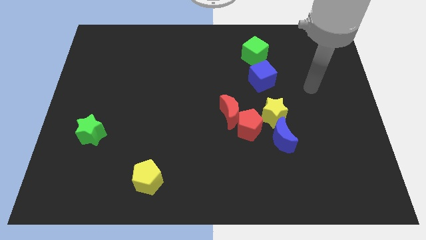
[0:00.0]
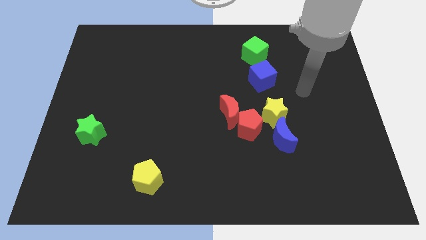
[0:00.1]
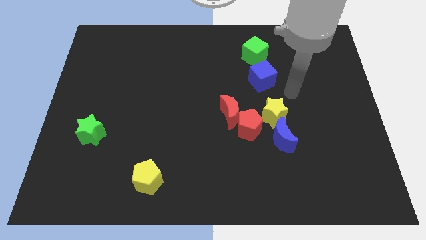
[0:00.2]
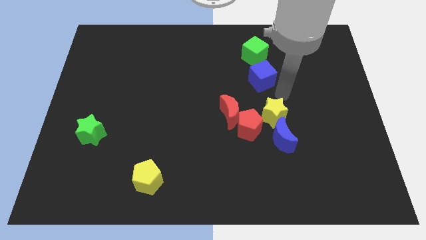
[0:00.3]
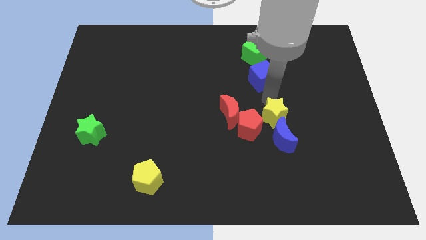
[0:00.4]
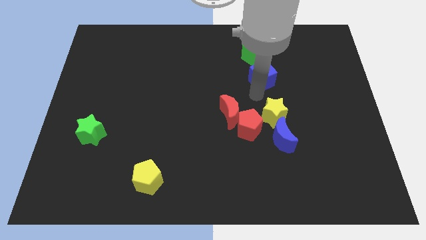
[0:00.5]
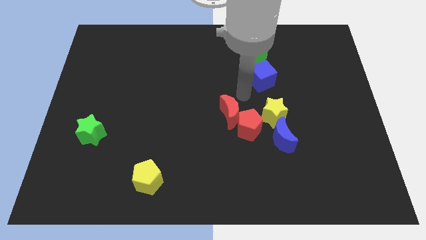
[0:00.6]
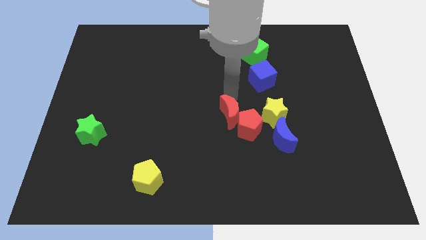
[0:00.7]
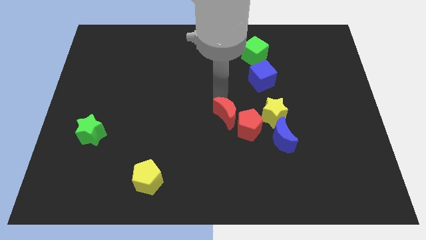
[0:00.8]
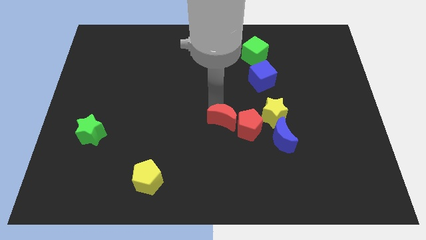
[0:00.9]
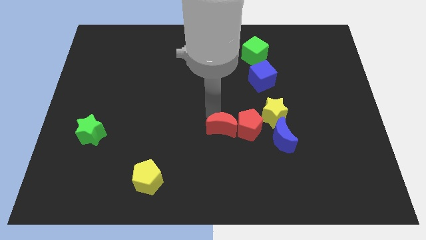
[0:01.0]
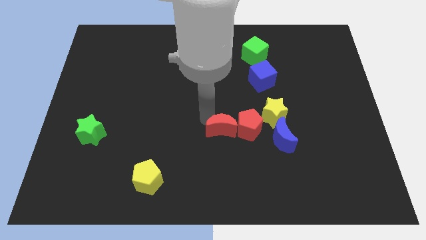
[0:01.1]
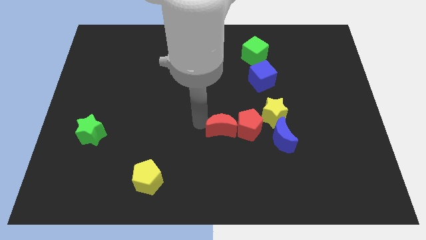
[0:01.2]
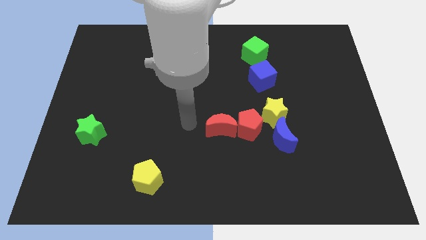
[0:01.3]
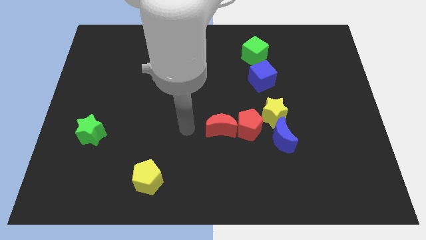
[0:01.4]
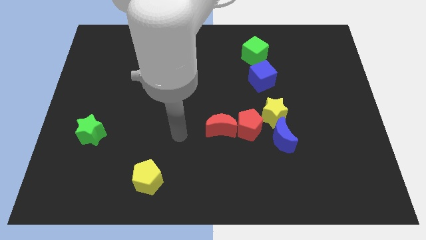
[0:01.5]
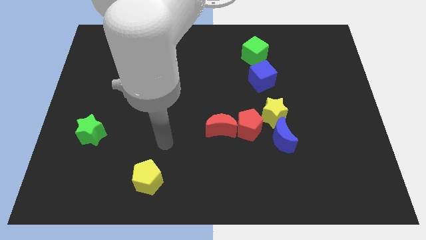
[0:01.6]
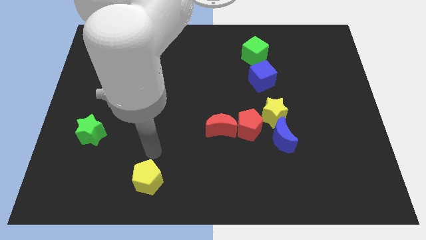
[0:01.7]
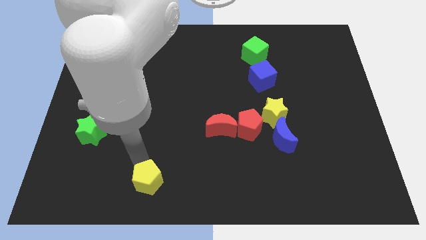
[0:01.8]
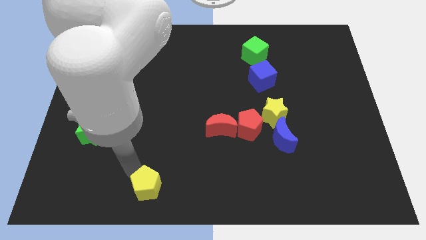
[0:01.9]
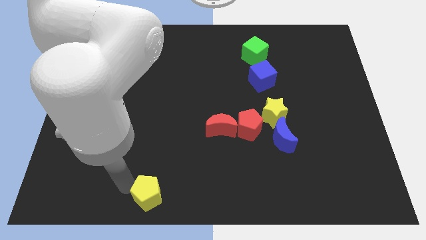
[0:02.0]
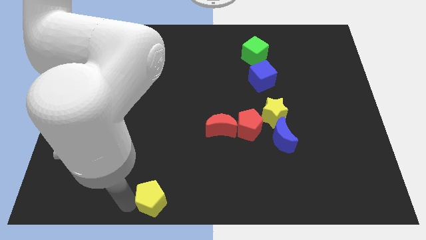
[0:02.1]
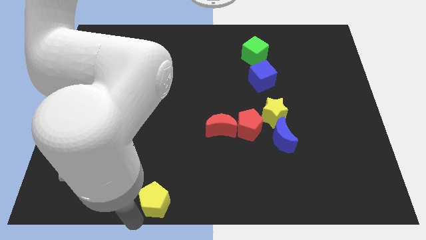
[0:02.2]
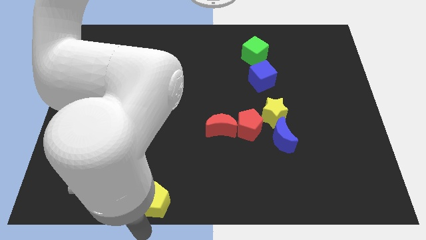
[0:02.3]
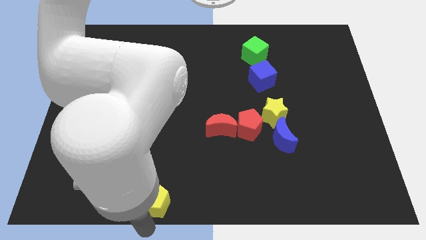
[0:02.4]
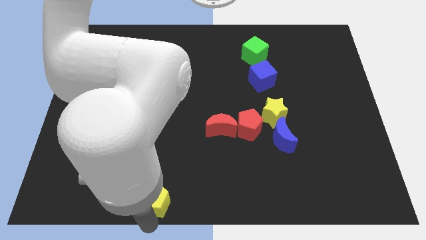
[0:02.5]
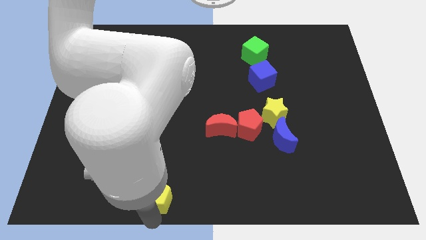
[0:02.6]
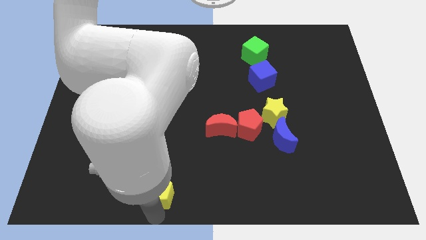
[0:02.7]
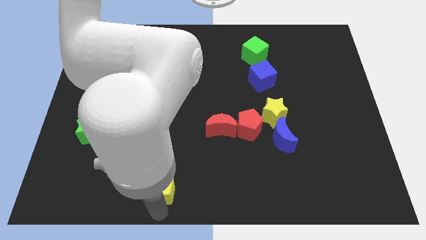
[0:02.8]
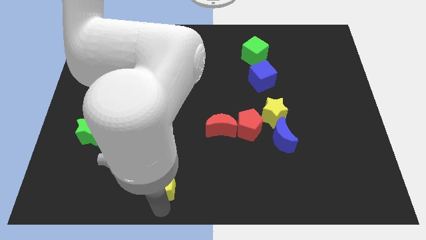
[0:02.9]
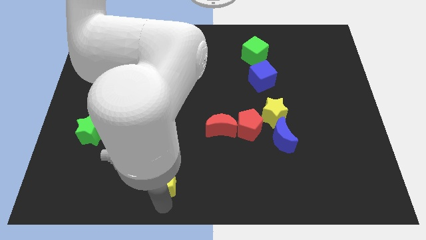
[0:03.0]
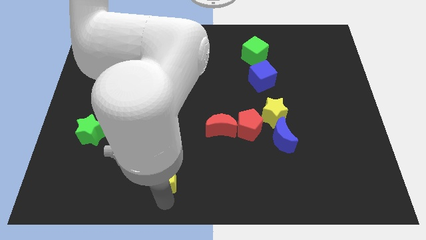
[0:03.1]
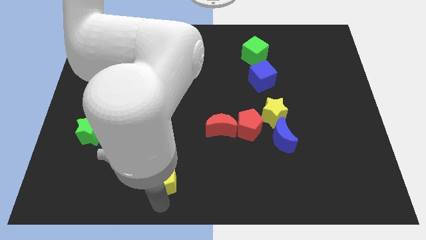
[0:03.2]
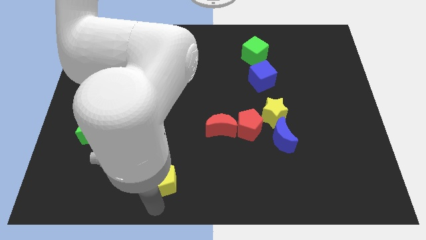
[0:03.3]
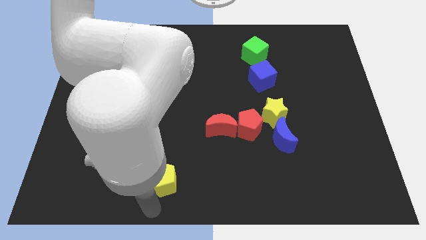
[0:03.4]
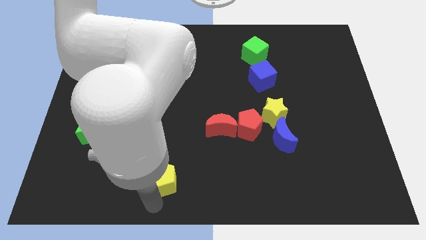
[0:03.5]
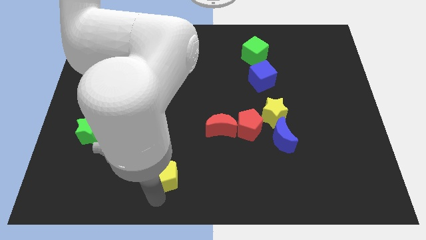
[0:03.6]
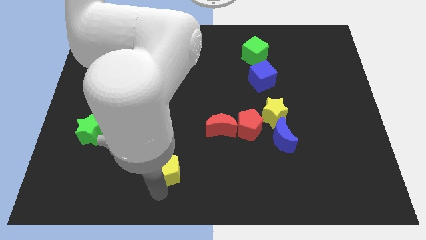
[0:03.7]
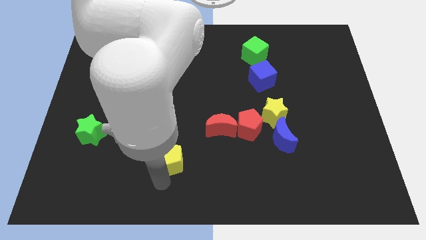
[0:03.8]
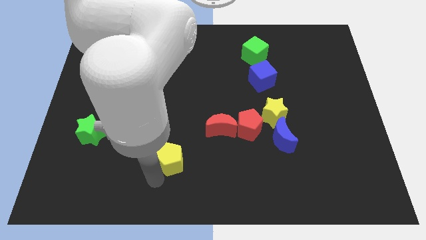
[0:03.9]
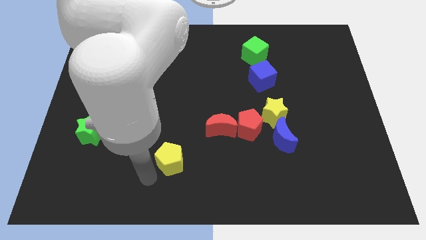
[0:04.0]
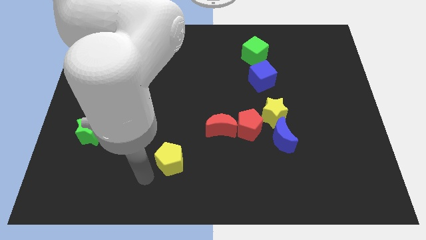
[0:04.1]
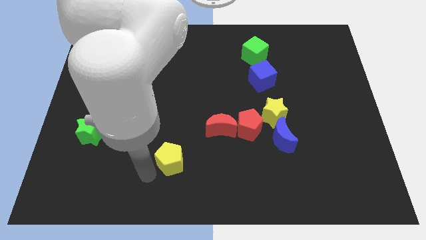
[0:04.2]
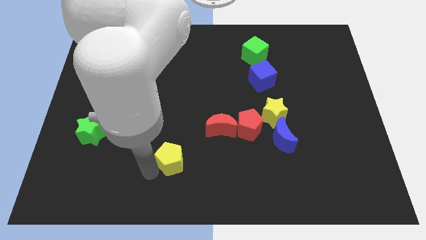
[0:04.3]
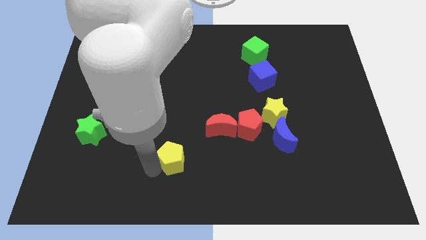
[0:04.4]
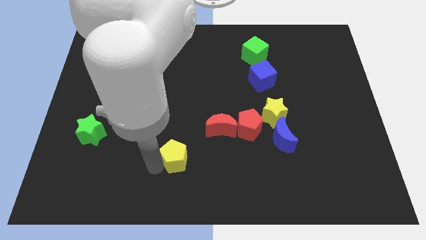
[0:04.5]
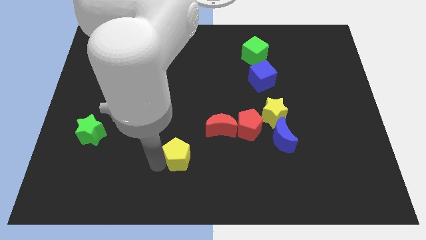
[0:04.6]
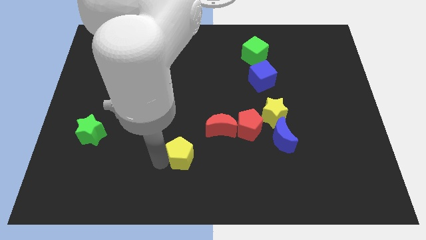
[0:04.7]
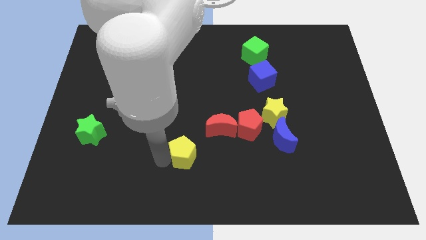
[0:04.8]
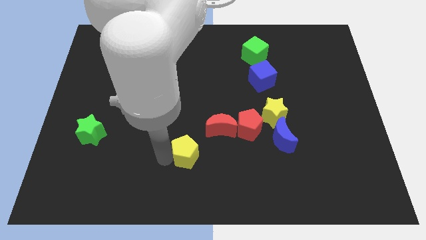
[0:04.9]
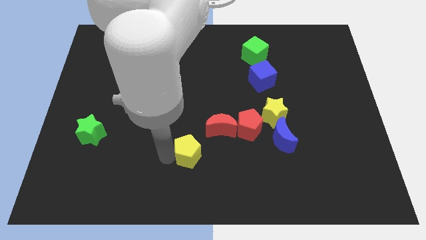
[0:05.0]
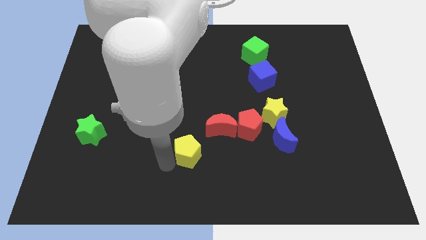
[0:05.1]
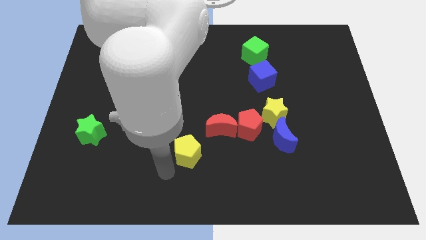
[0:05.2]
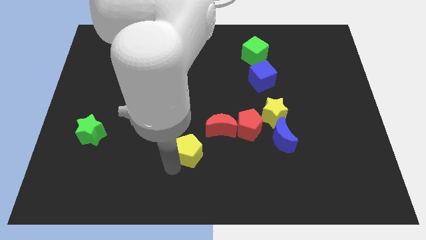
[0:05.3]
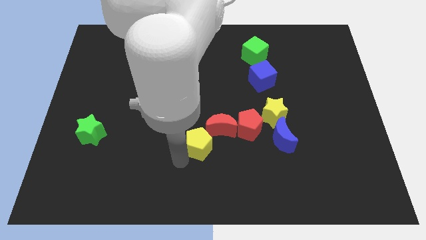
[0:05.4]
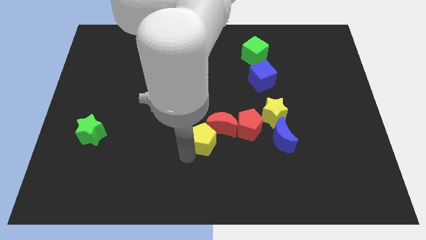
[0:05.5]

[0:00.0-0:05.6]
push the yellow pentagon to the red moon

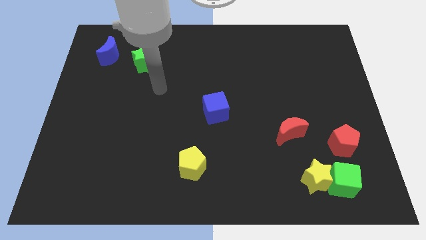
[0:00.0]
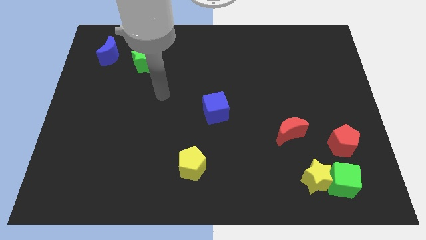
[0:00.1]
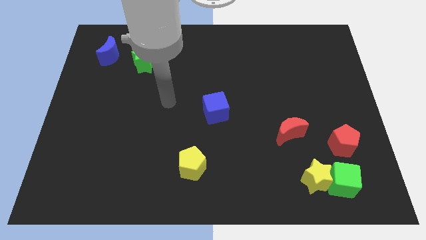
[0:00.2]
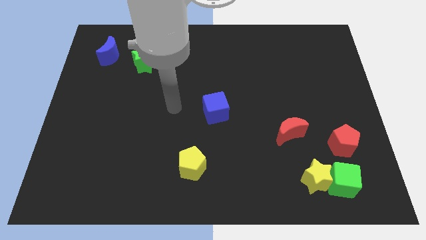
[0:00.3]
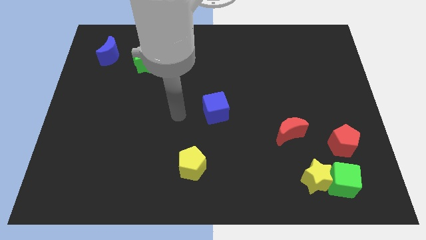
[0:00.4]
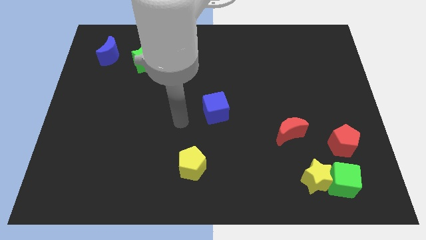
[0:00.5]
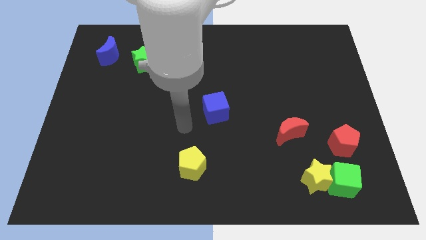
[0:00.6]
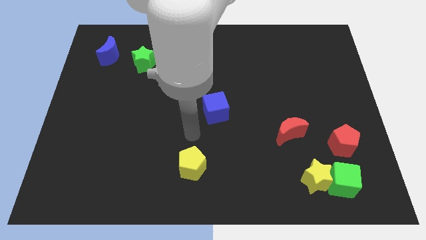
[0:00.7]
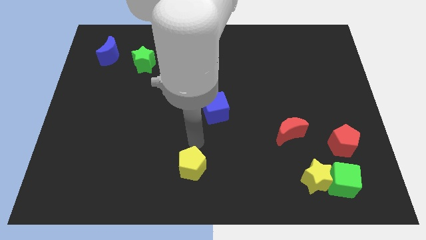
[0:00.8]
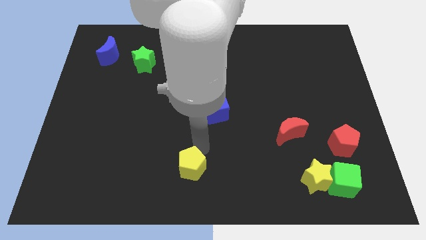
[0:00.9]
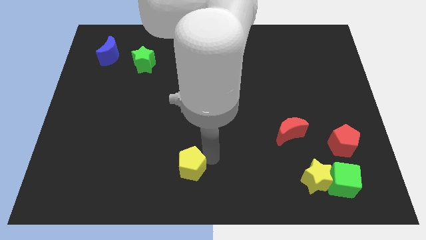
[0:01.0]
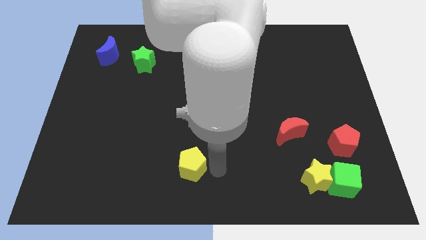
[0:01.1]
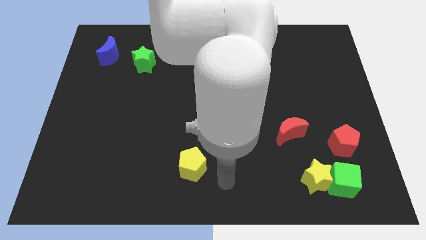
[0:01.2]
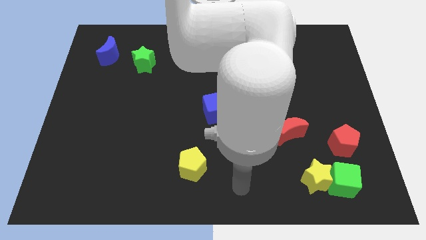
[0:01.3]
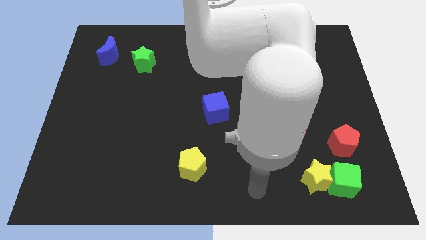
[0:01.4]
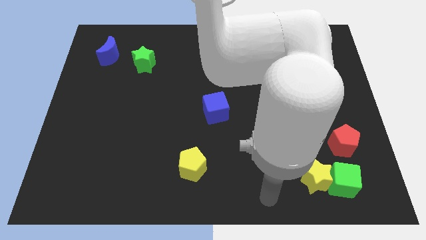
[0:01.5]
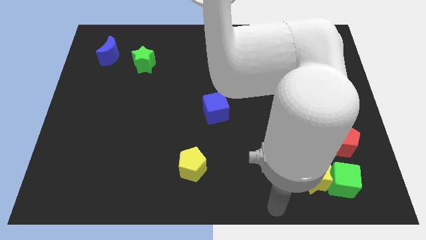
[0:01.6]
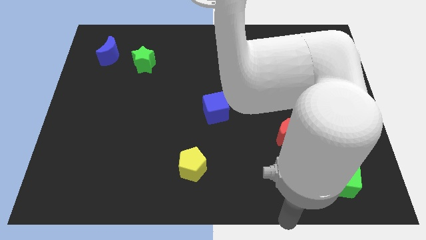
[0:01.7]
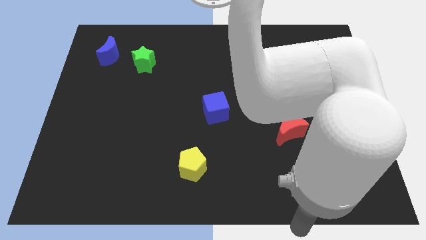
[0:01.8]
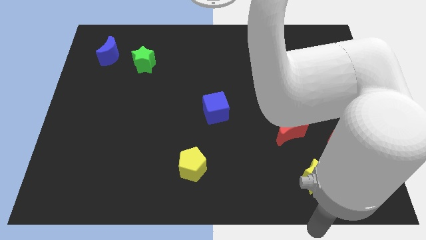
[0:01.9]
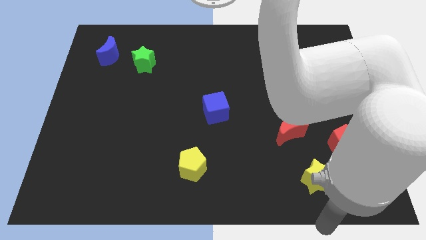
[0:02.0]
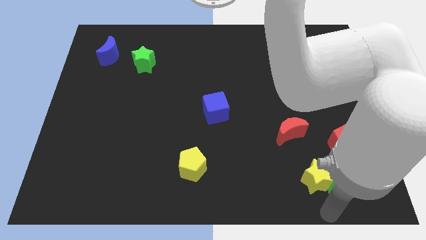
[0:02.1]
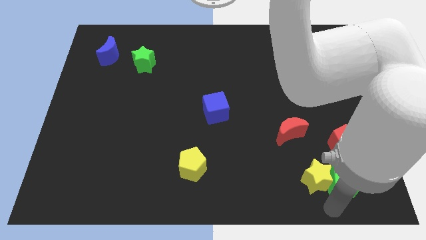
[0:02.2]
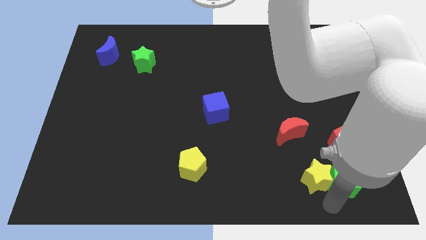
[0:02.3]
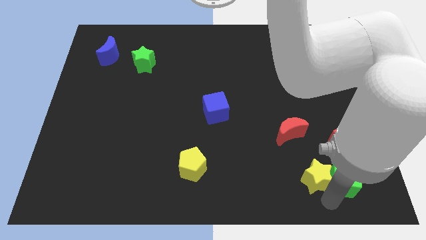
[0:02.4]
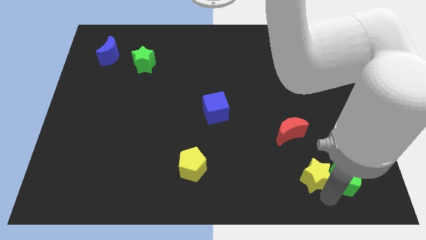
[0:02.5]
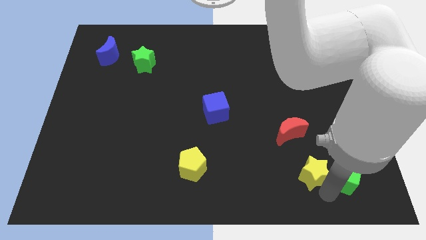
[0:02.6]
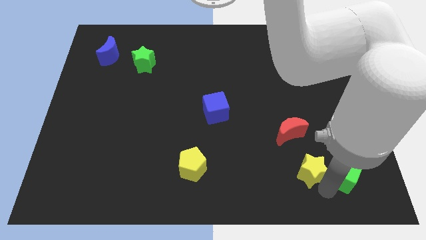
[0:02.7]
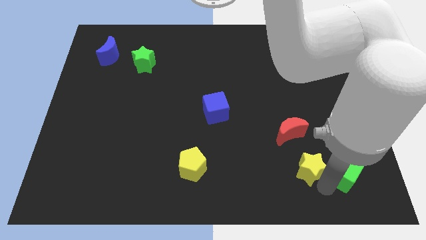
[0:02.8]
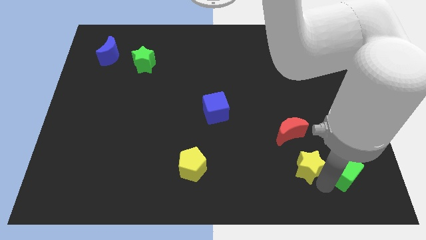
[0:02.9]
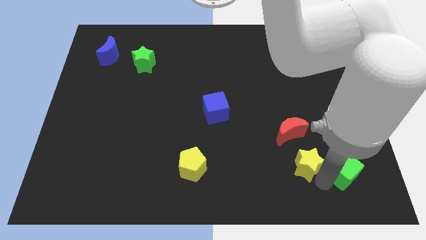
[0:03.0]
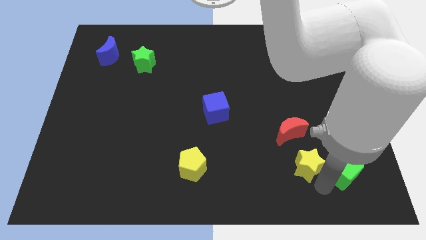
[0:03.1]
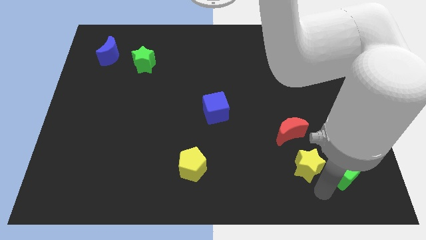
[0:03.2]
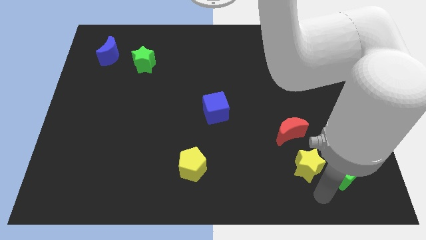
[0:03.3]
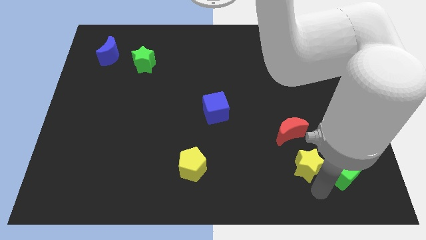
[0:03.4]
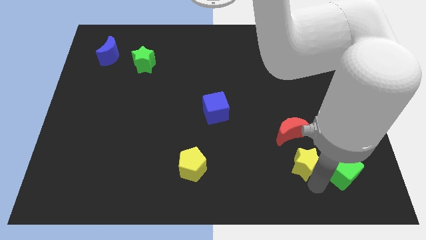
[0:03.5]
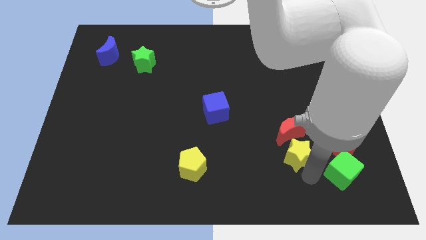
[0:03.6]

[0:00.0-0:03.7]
put the yellow star close to the red moon
